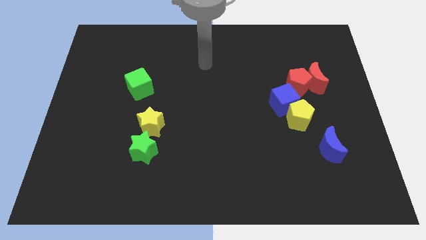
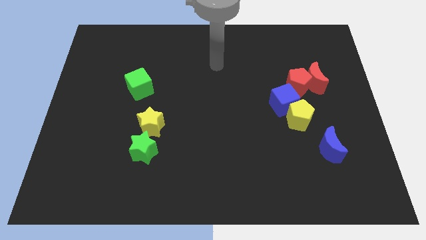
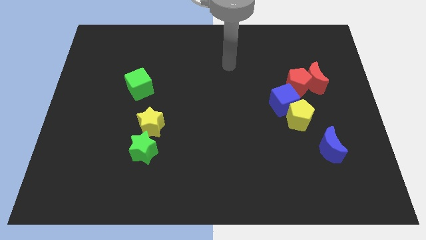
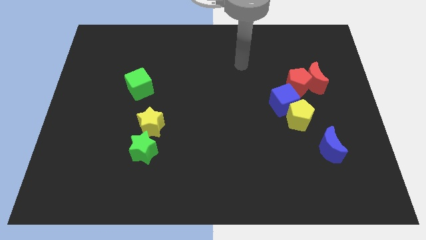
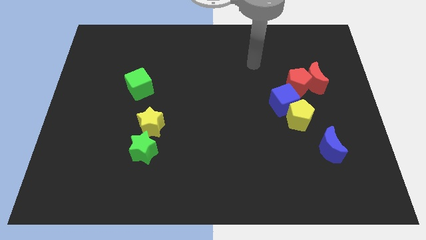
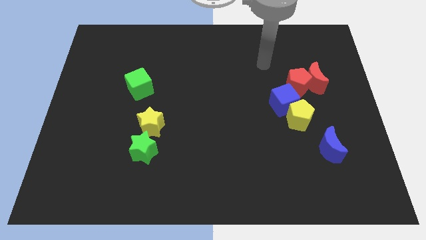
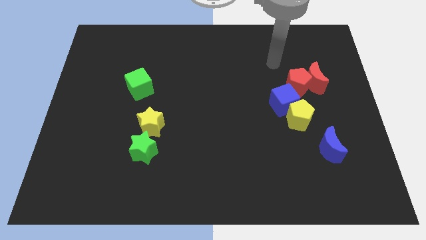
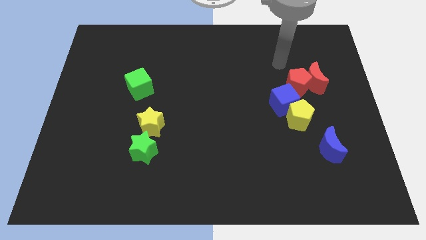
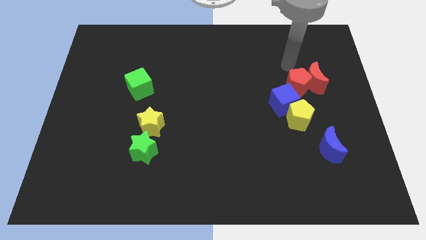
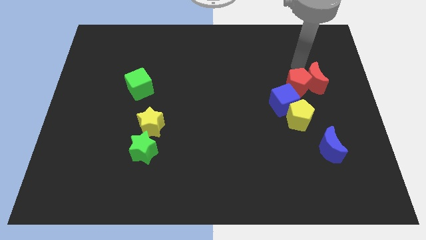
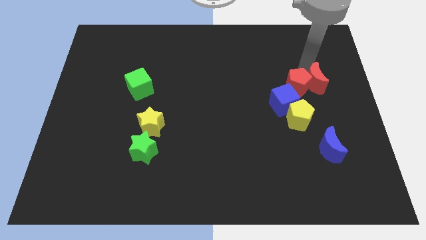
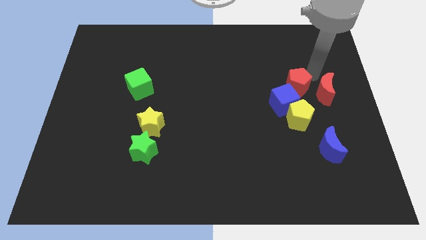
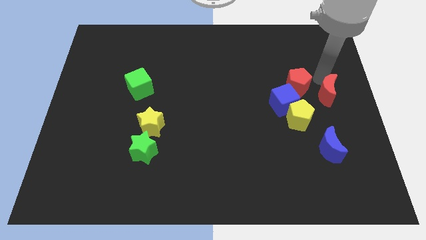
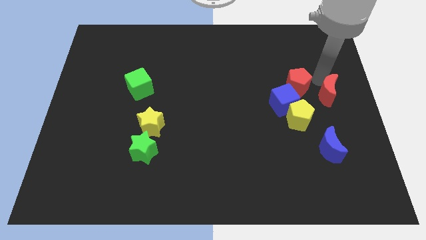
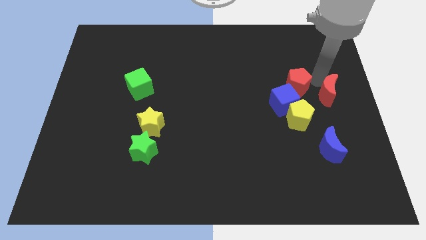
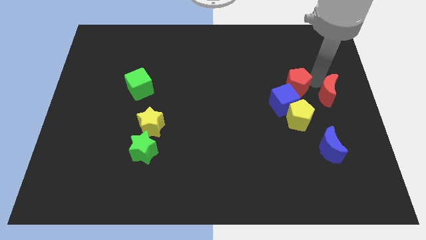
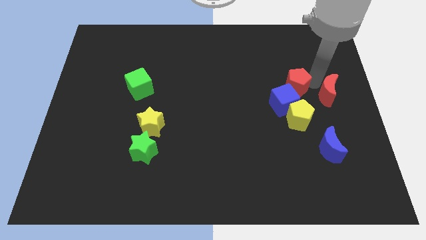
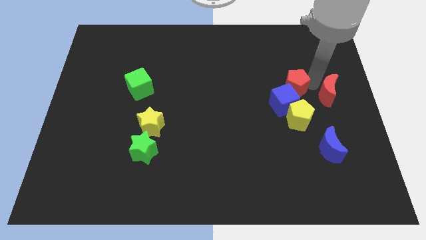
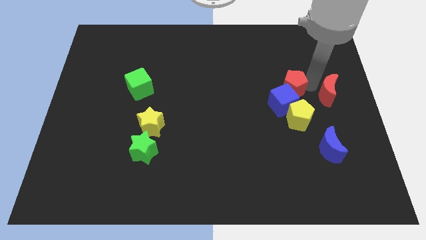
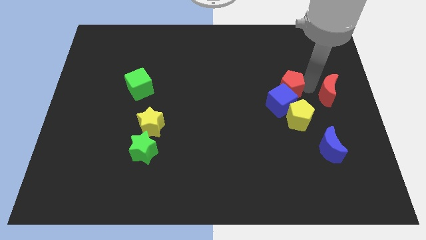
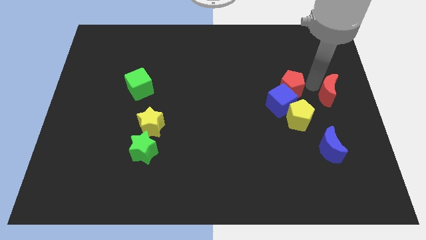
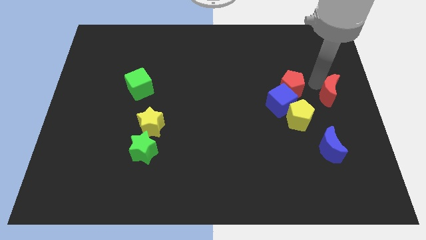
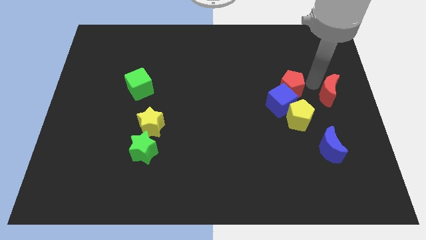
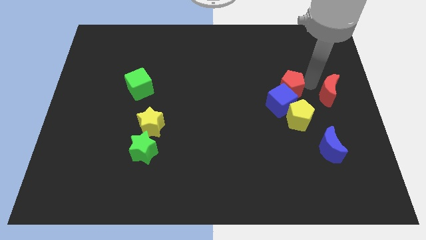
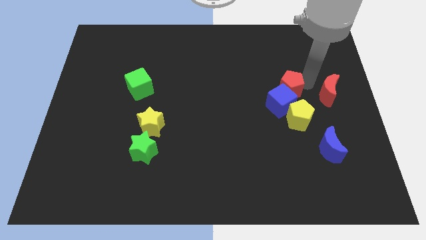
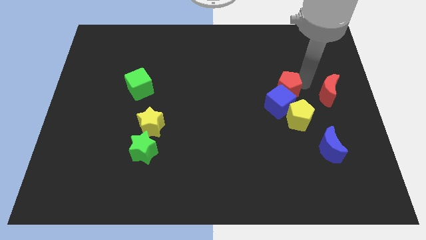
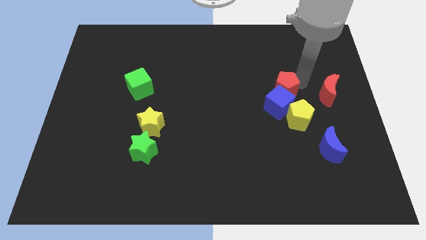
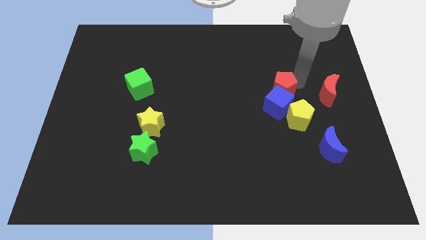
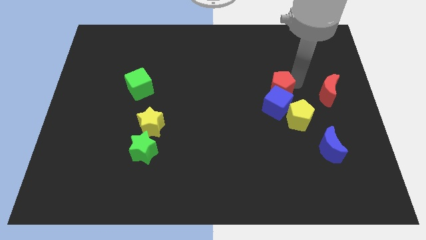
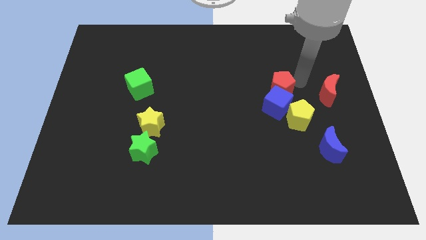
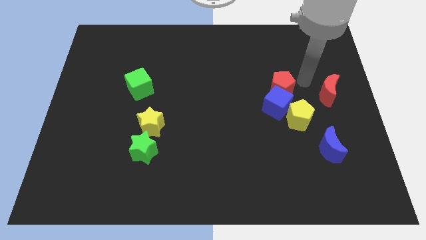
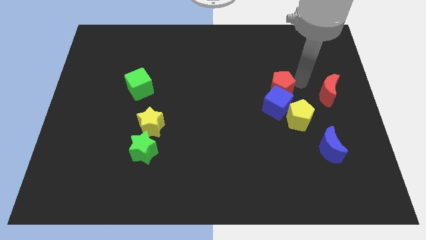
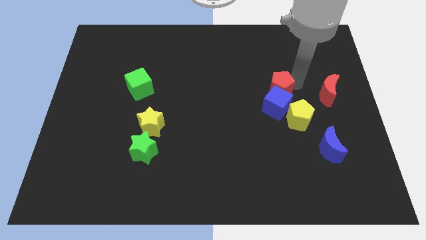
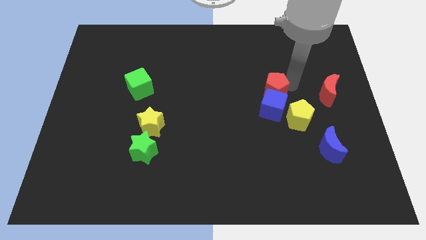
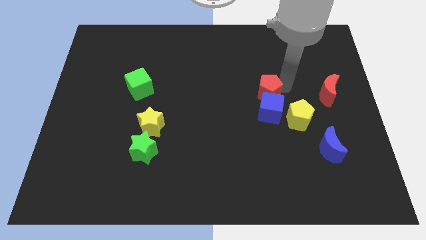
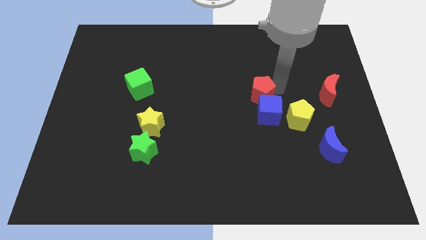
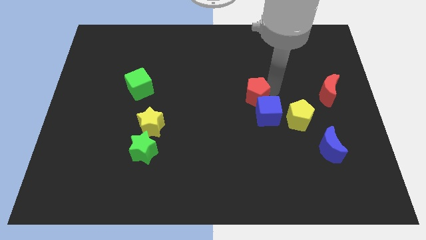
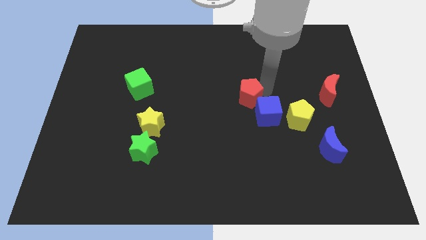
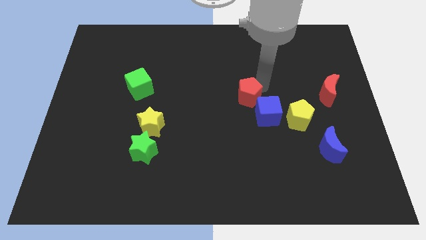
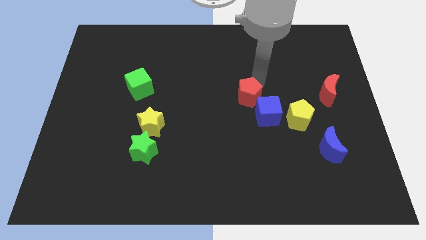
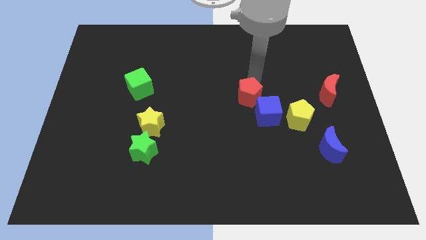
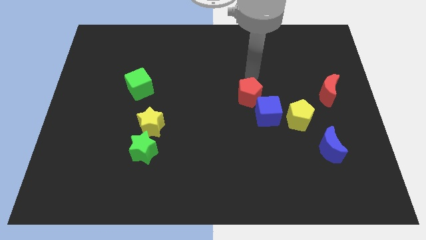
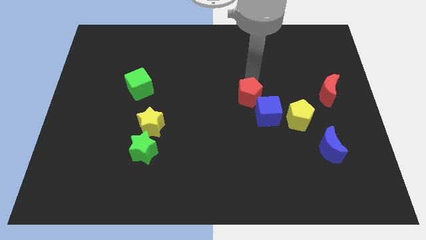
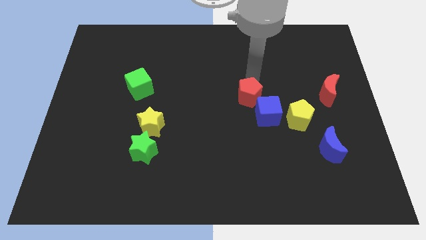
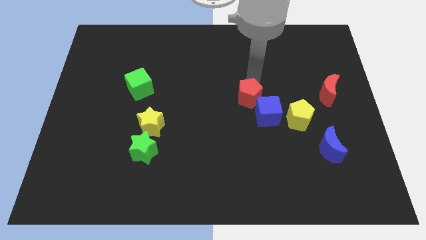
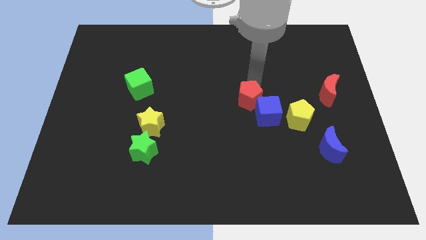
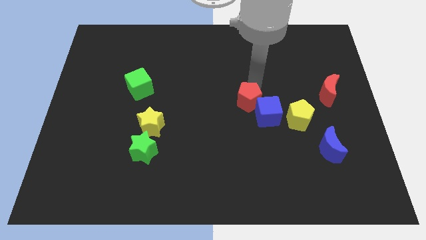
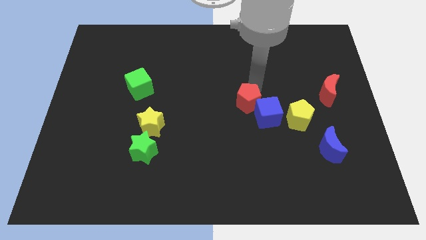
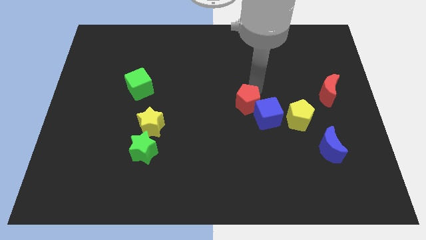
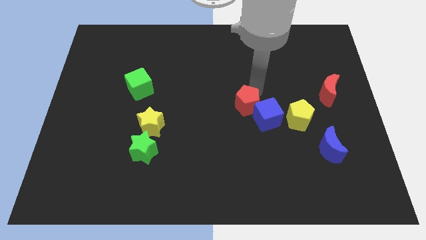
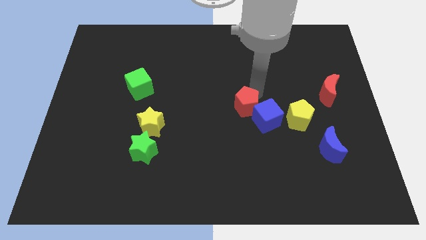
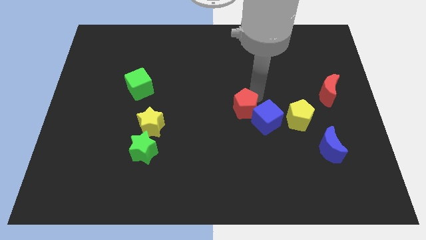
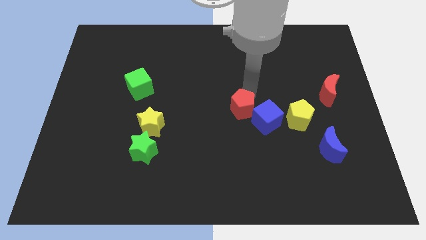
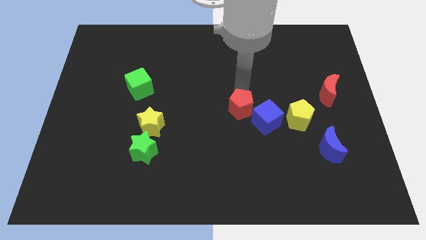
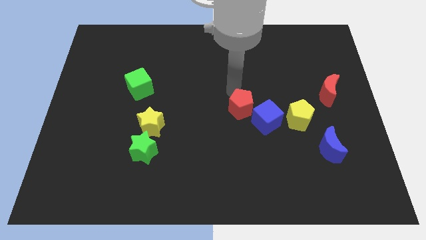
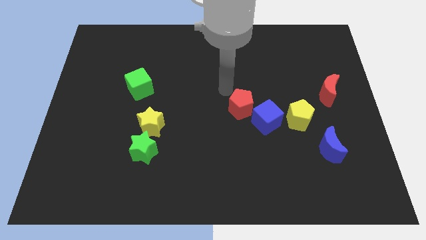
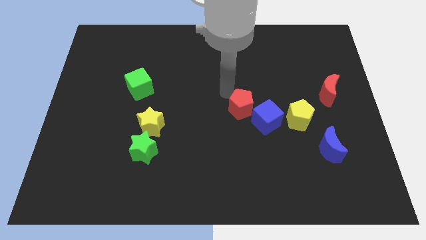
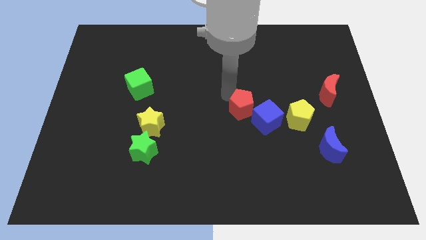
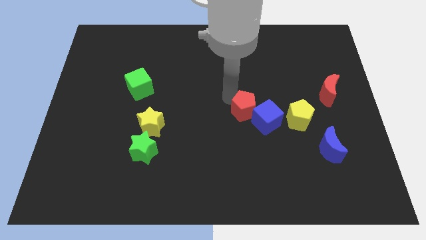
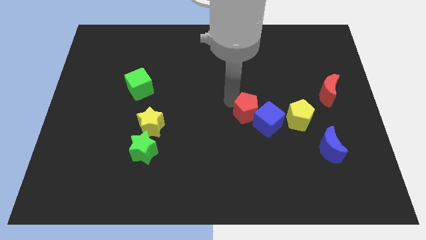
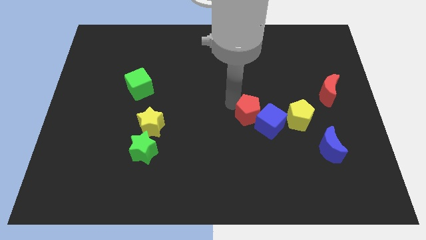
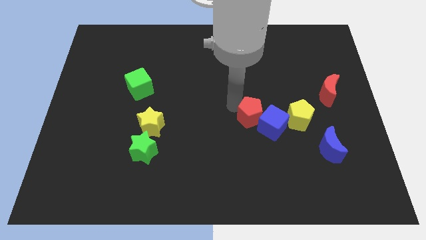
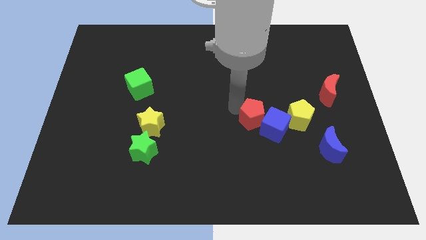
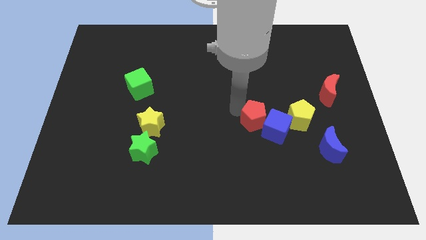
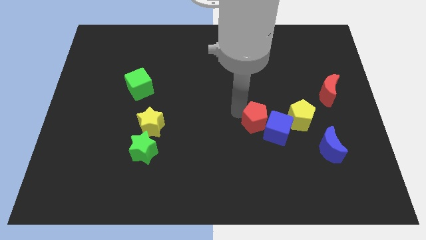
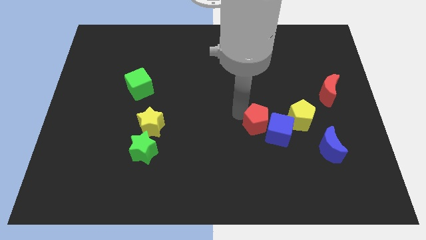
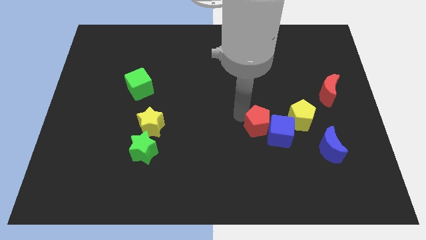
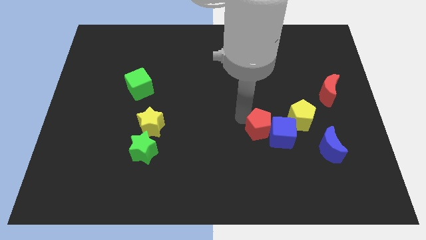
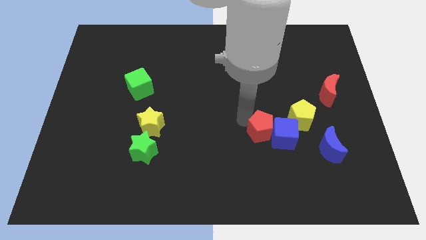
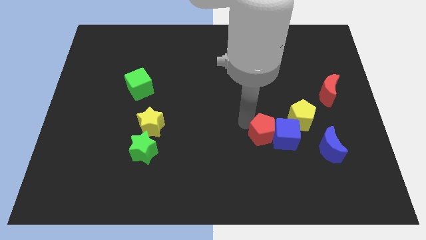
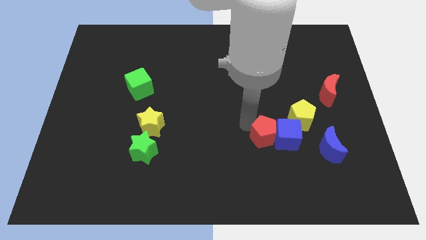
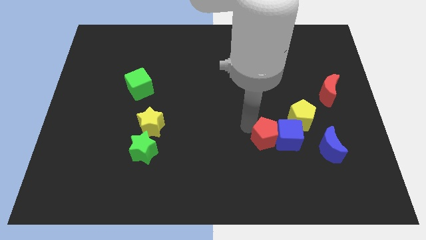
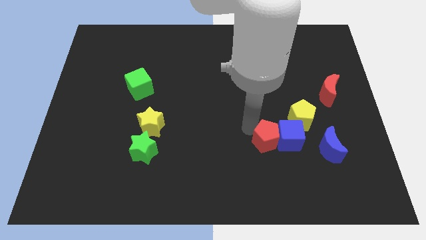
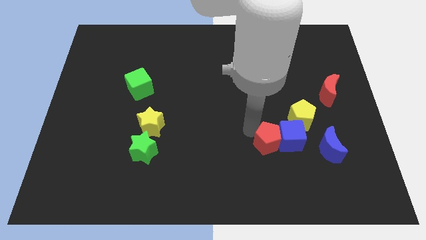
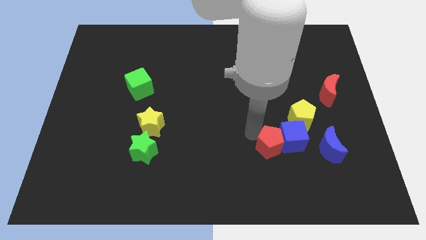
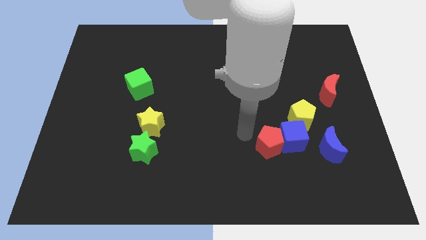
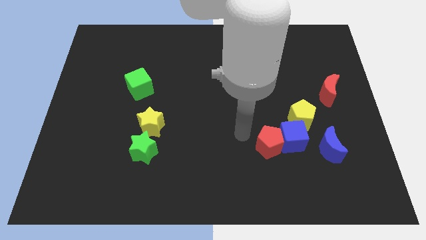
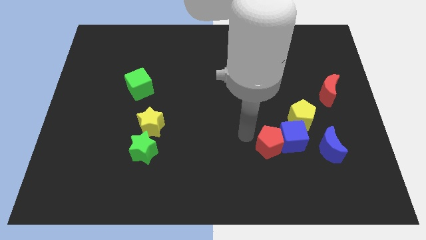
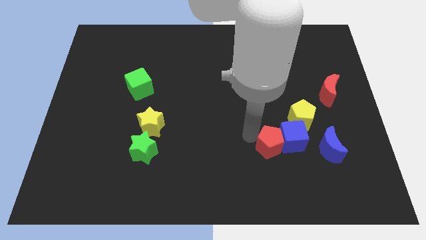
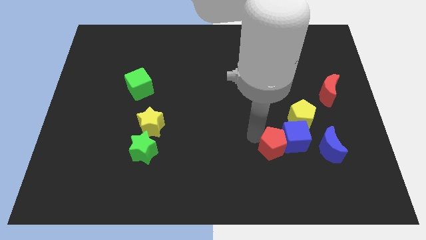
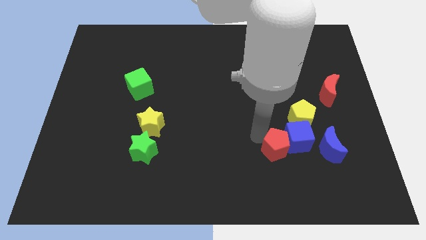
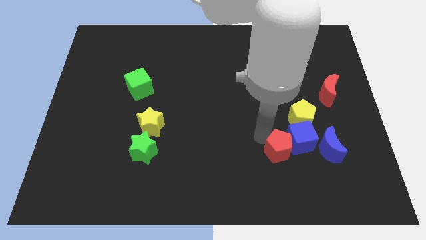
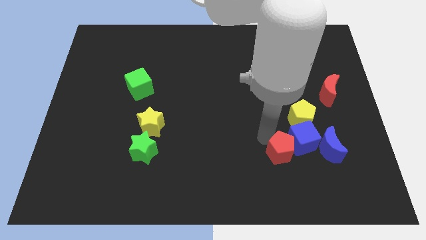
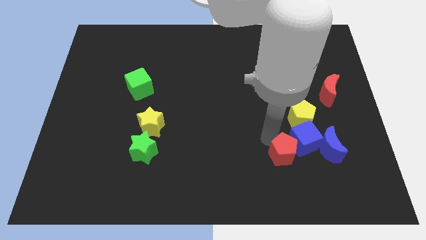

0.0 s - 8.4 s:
put the red pentagon to the bottom of the yellow pentagon
